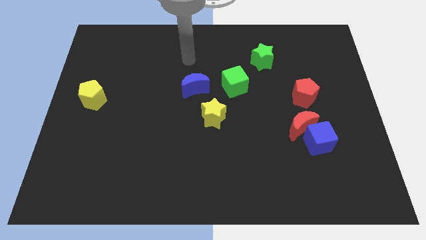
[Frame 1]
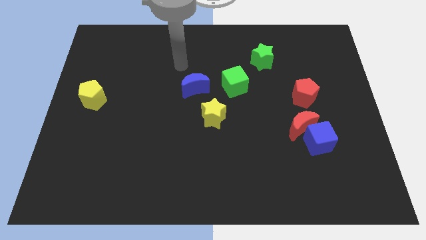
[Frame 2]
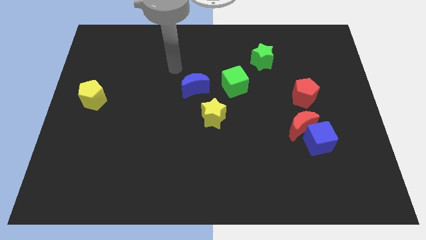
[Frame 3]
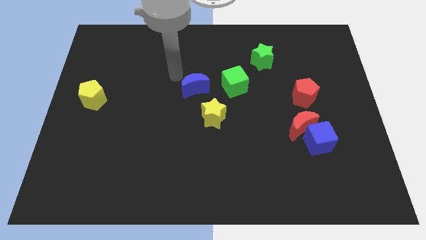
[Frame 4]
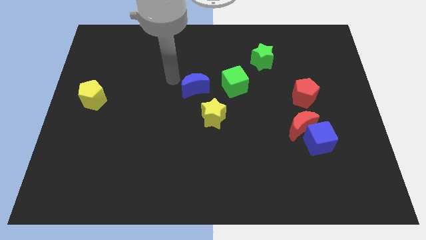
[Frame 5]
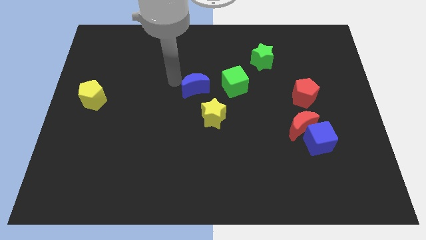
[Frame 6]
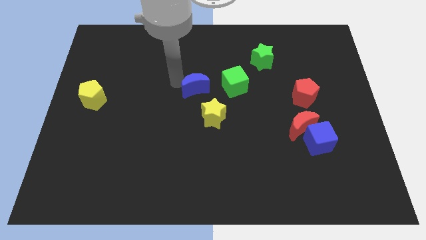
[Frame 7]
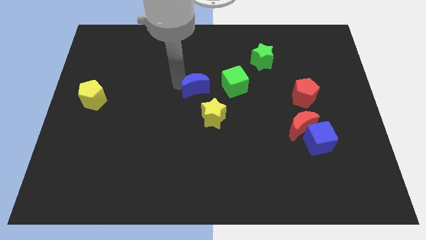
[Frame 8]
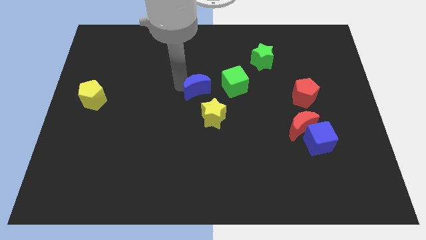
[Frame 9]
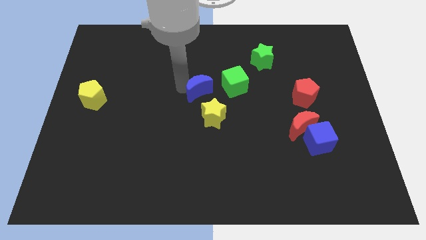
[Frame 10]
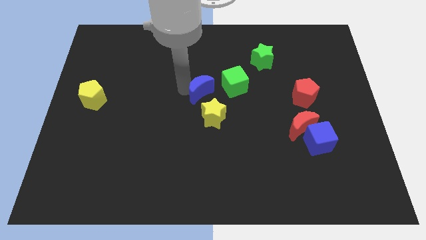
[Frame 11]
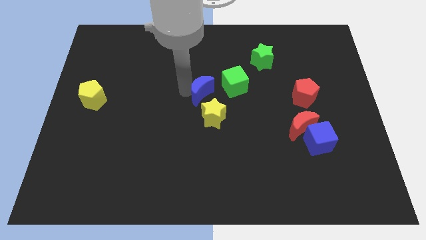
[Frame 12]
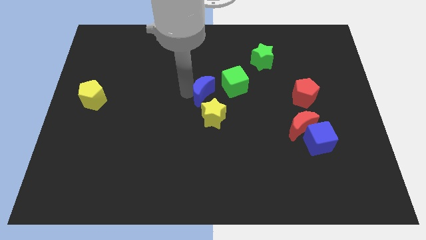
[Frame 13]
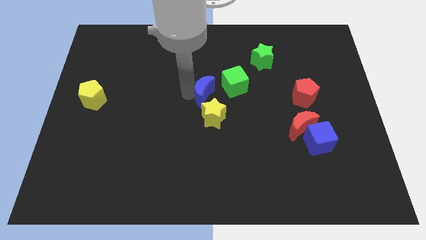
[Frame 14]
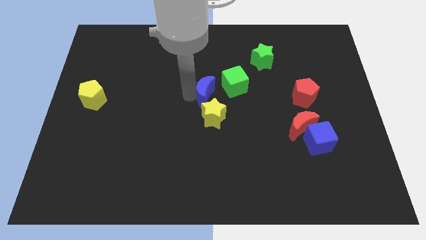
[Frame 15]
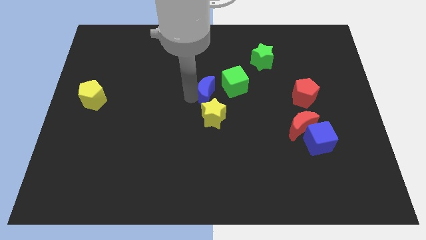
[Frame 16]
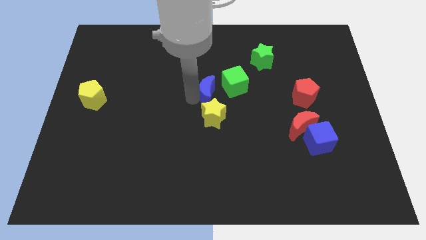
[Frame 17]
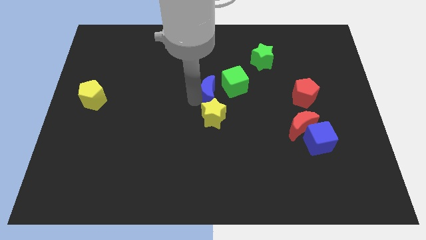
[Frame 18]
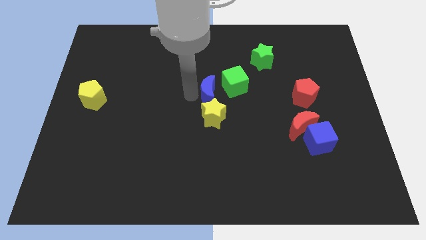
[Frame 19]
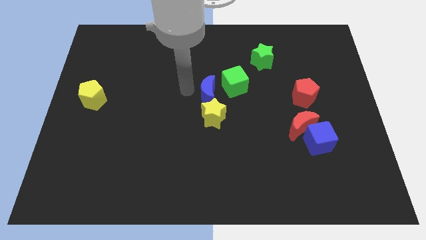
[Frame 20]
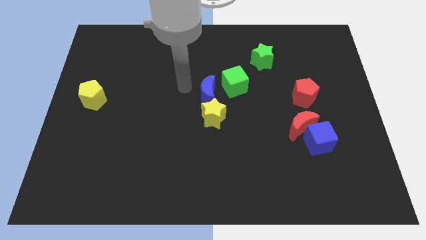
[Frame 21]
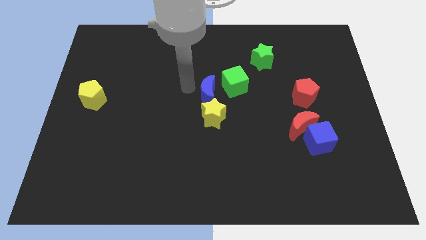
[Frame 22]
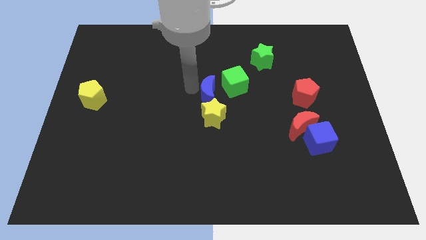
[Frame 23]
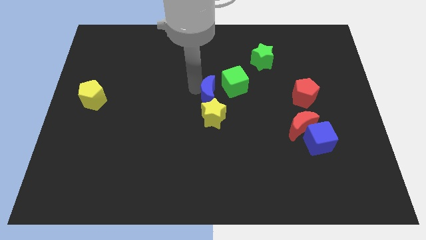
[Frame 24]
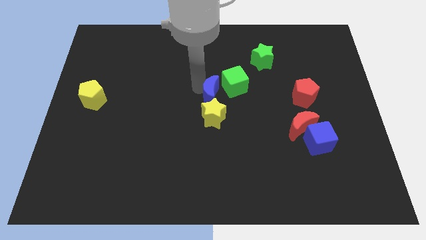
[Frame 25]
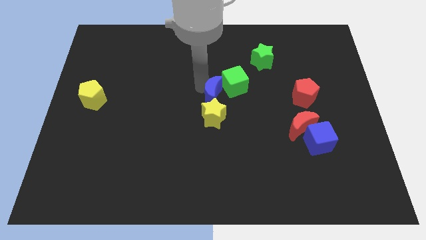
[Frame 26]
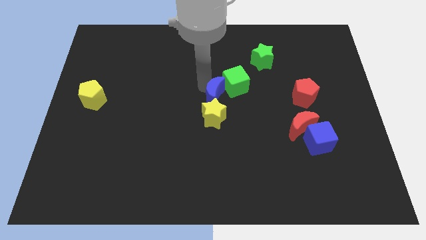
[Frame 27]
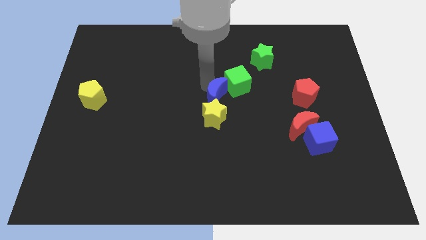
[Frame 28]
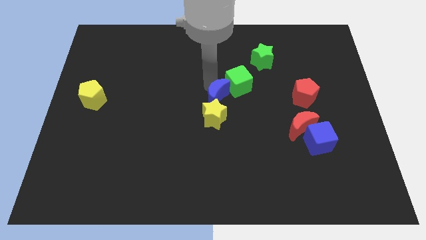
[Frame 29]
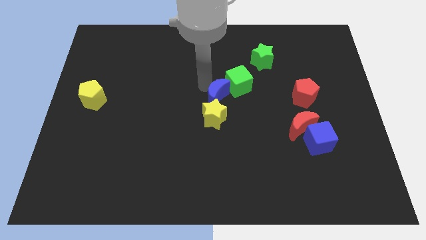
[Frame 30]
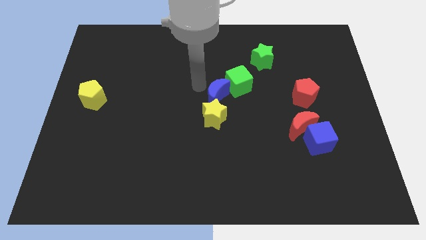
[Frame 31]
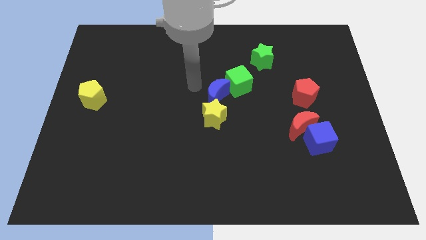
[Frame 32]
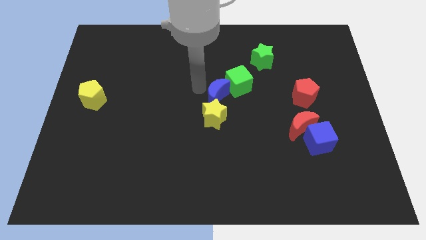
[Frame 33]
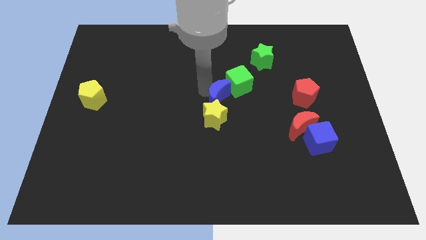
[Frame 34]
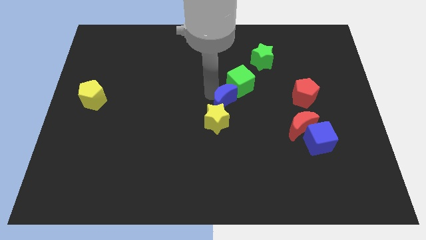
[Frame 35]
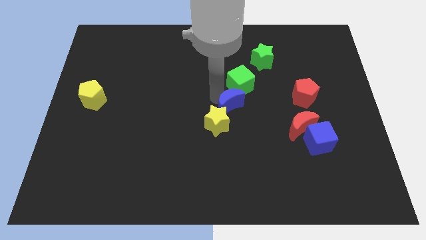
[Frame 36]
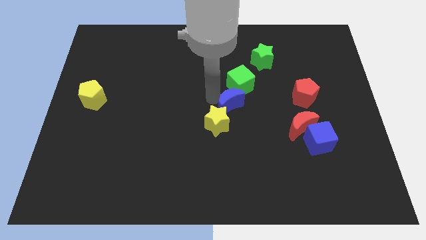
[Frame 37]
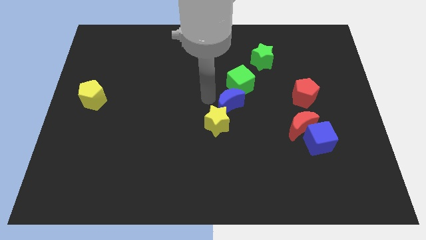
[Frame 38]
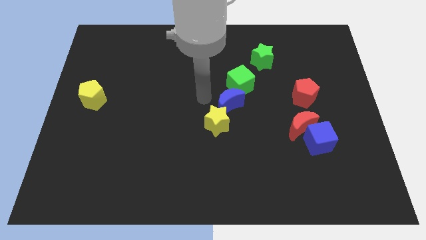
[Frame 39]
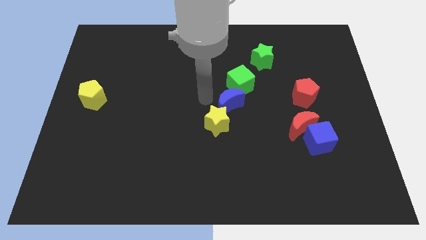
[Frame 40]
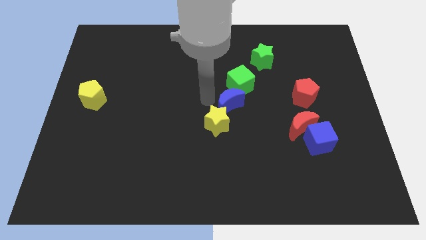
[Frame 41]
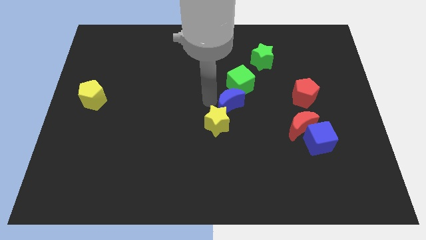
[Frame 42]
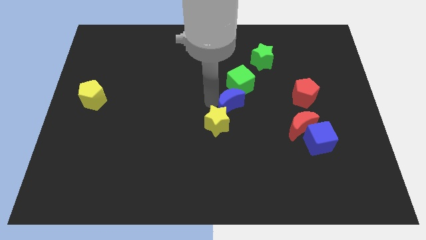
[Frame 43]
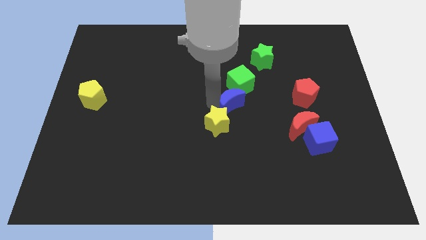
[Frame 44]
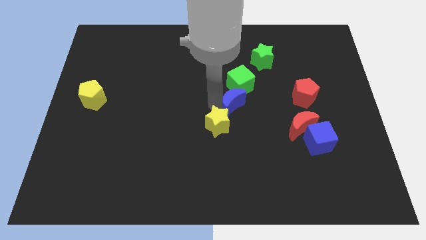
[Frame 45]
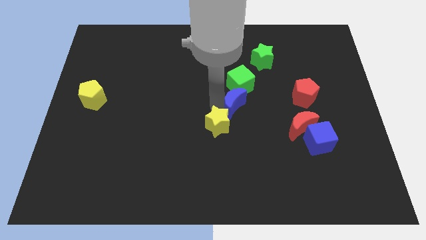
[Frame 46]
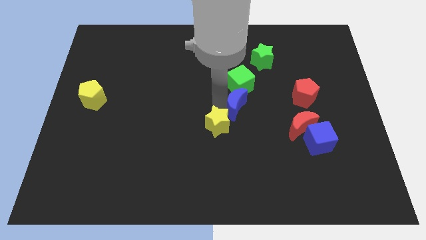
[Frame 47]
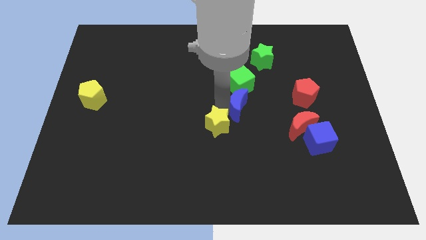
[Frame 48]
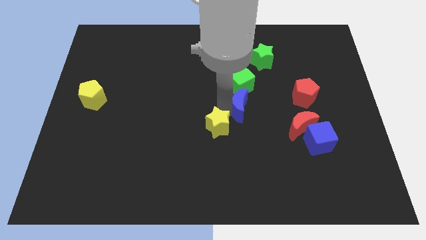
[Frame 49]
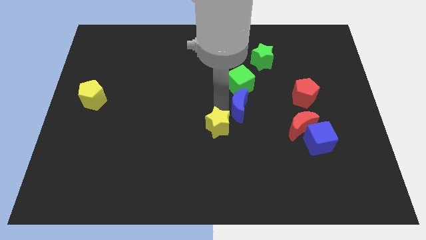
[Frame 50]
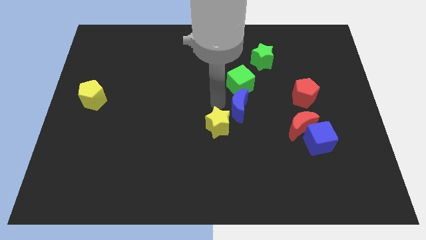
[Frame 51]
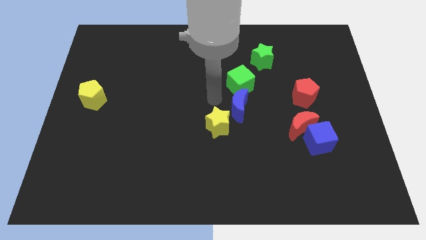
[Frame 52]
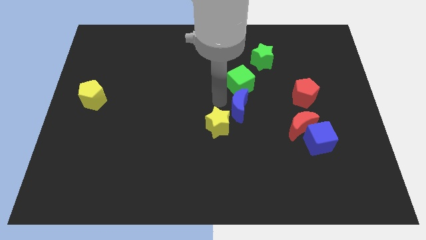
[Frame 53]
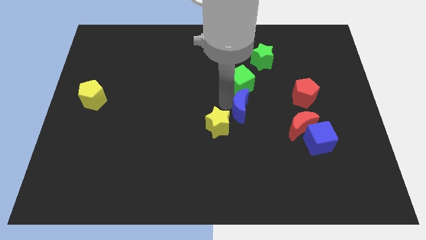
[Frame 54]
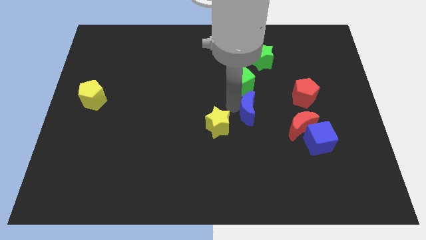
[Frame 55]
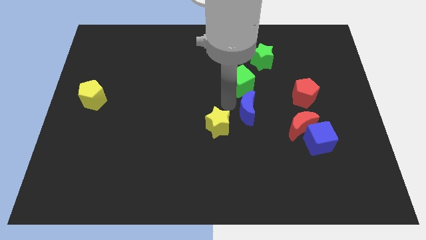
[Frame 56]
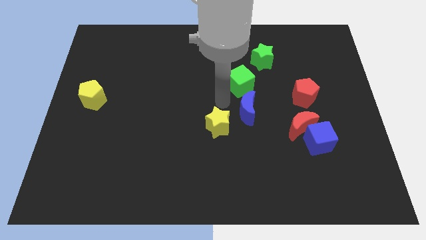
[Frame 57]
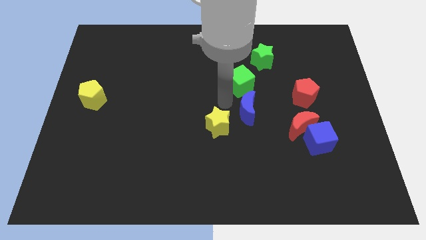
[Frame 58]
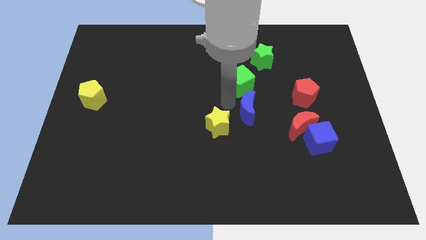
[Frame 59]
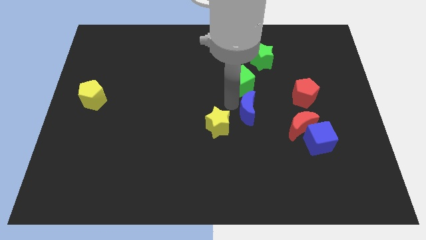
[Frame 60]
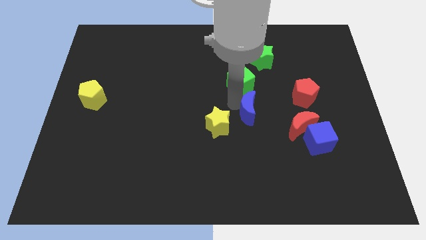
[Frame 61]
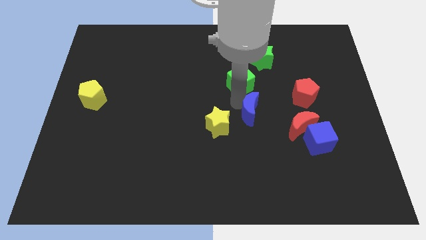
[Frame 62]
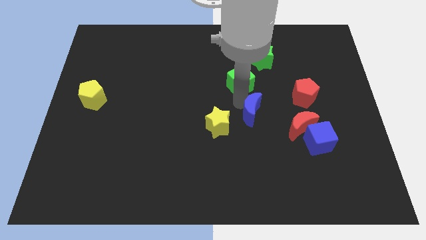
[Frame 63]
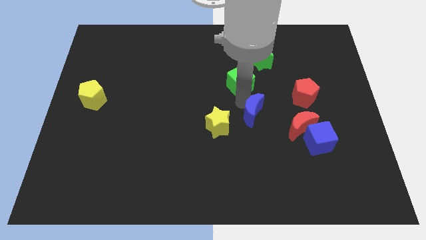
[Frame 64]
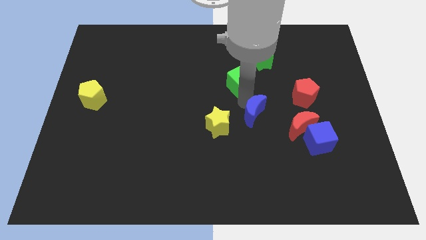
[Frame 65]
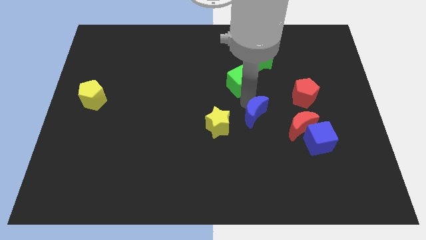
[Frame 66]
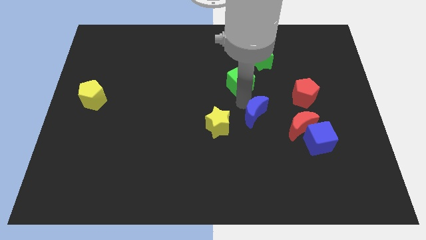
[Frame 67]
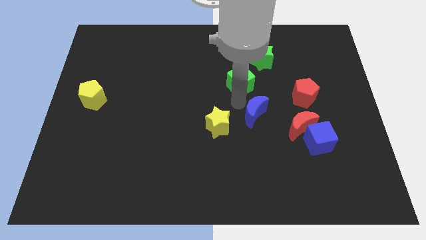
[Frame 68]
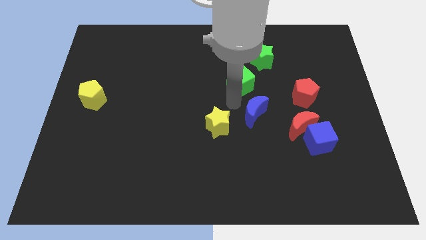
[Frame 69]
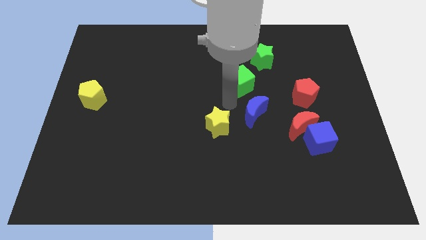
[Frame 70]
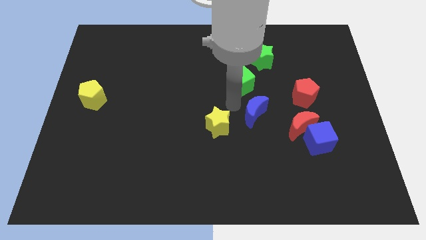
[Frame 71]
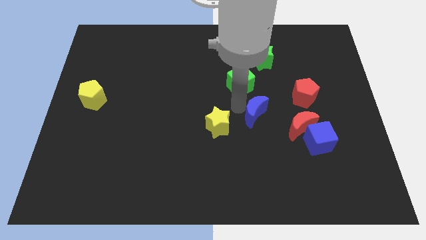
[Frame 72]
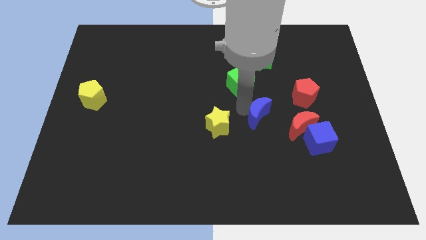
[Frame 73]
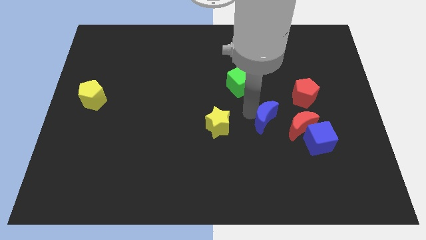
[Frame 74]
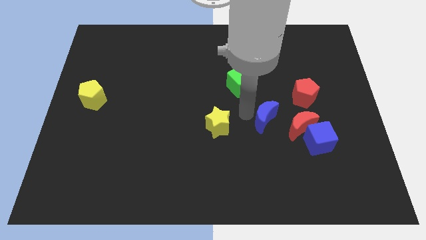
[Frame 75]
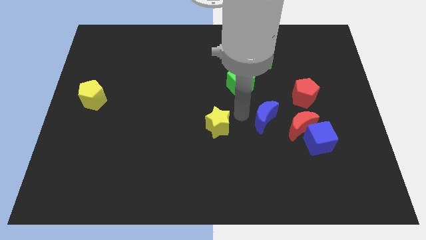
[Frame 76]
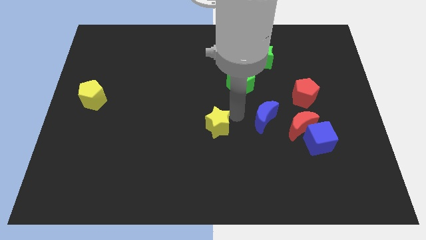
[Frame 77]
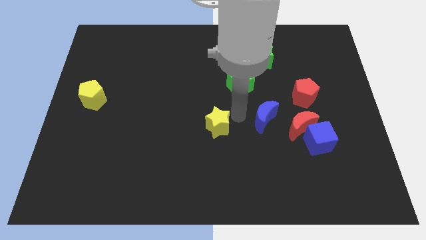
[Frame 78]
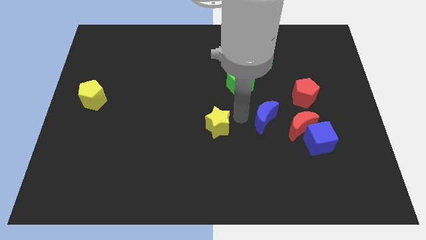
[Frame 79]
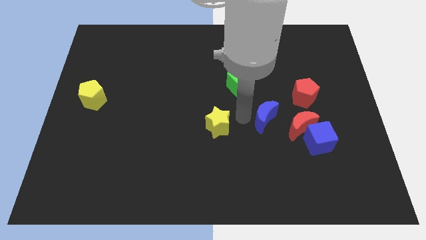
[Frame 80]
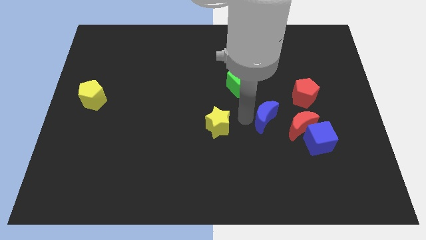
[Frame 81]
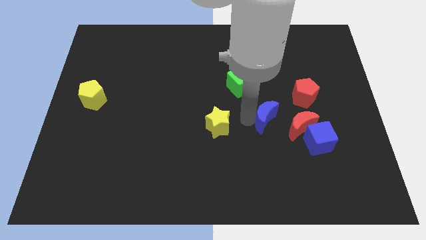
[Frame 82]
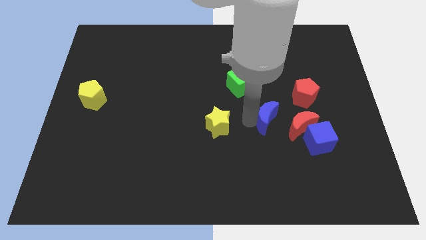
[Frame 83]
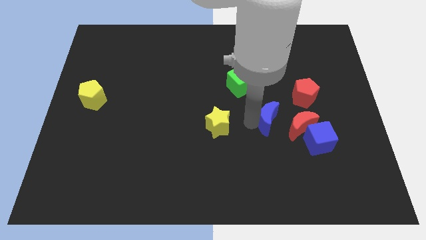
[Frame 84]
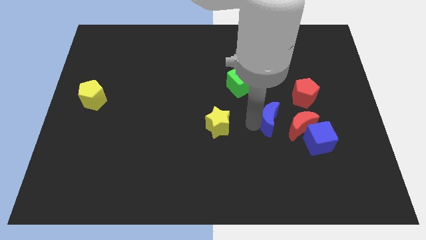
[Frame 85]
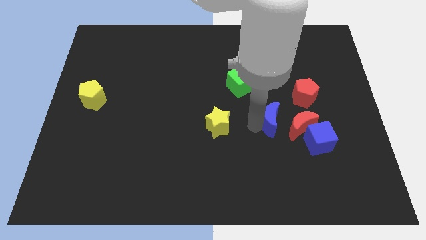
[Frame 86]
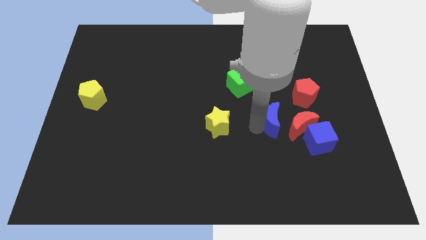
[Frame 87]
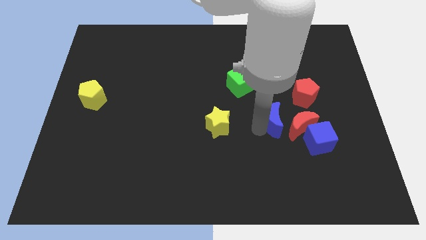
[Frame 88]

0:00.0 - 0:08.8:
slide the blue moon next to the red moon
